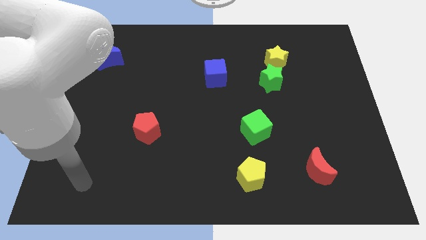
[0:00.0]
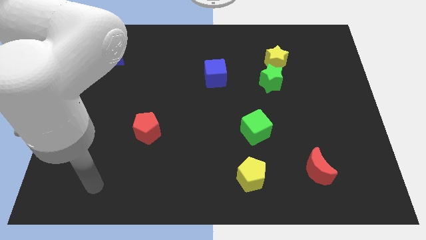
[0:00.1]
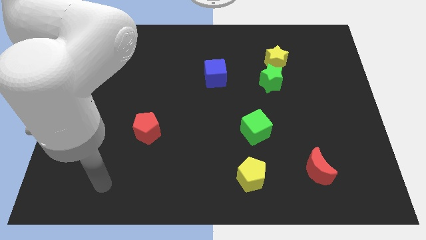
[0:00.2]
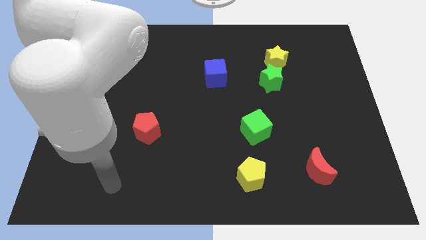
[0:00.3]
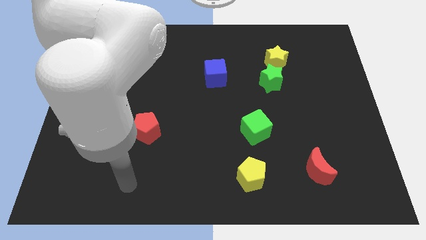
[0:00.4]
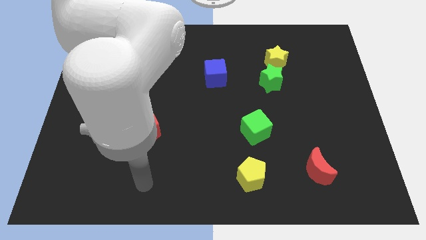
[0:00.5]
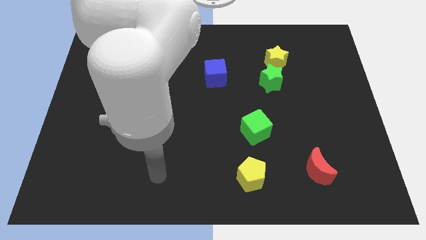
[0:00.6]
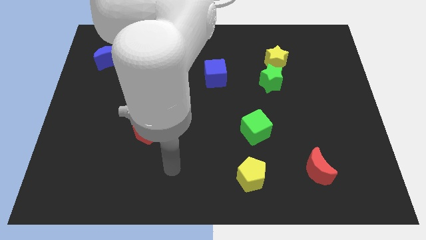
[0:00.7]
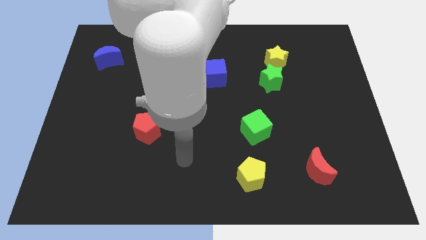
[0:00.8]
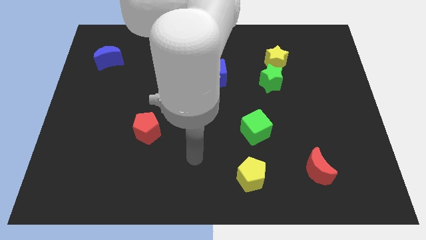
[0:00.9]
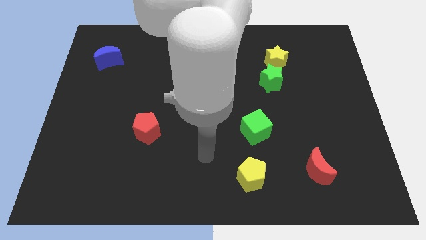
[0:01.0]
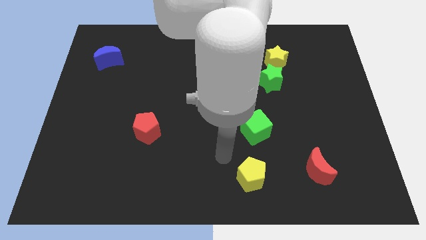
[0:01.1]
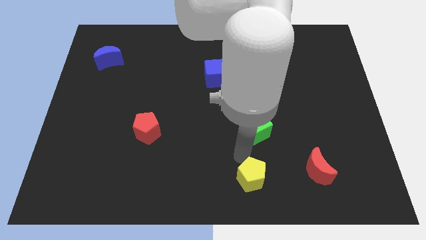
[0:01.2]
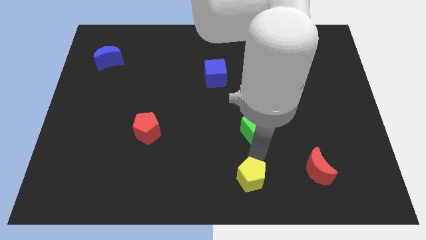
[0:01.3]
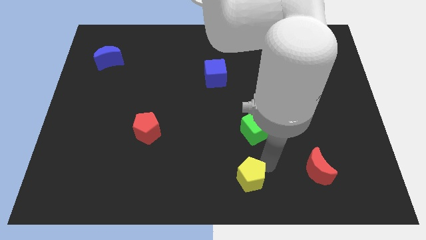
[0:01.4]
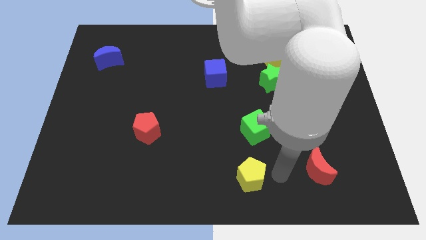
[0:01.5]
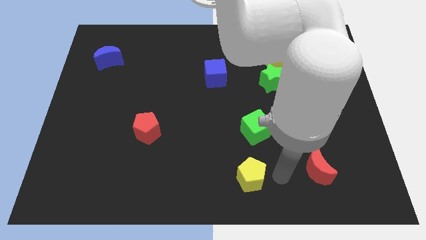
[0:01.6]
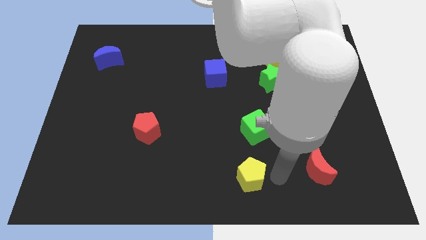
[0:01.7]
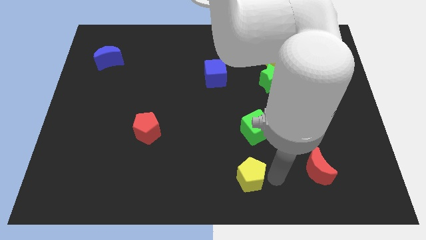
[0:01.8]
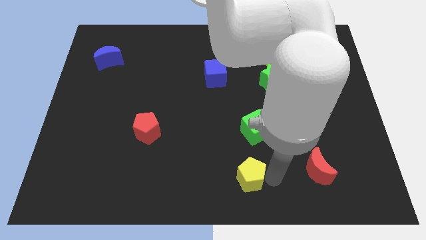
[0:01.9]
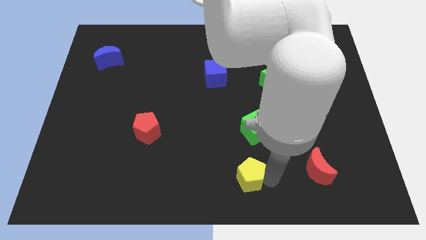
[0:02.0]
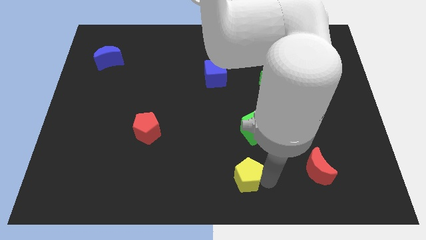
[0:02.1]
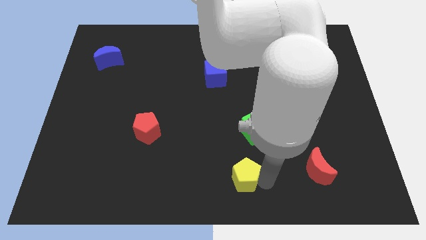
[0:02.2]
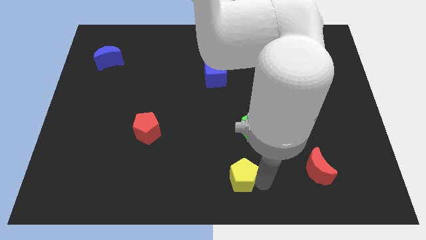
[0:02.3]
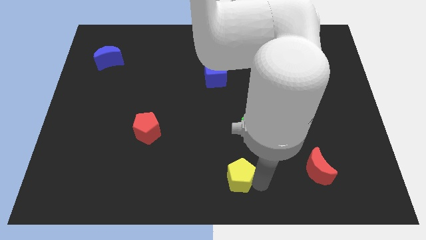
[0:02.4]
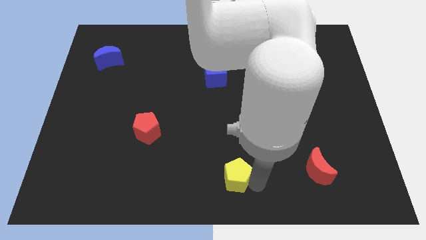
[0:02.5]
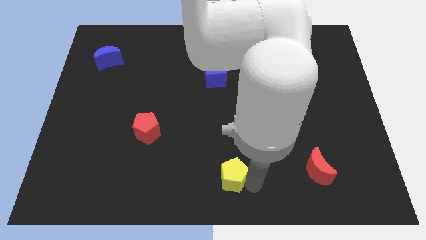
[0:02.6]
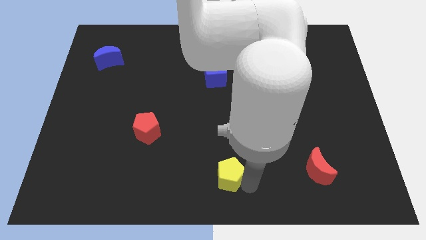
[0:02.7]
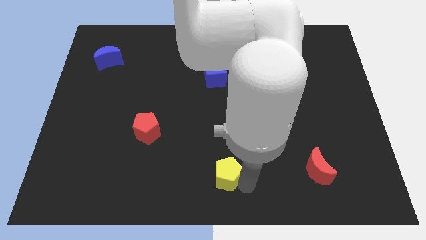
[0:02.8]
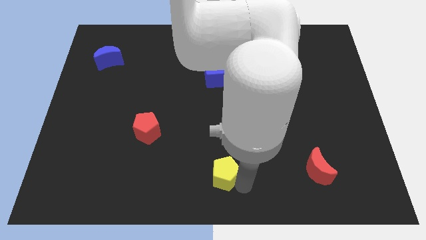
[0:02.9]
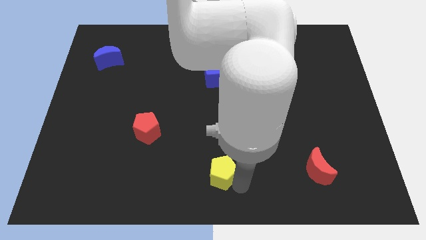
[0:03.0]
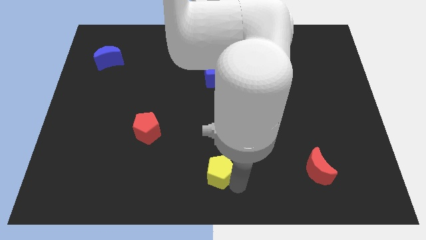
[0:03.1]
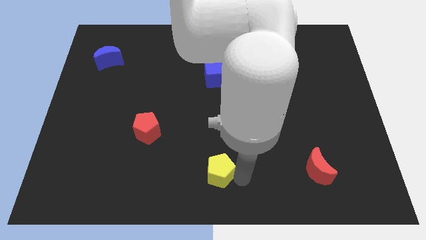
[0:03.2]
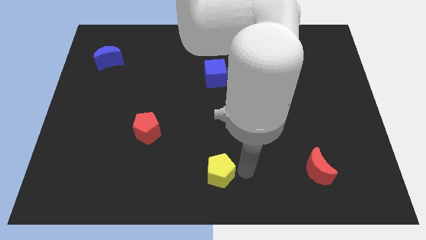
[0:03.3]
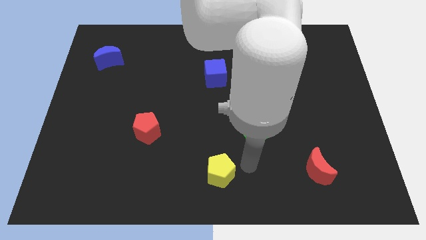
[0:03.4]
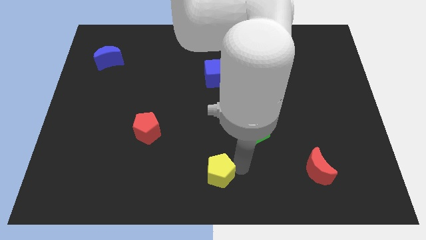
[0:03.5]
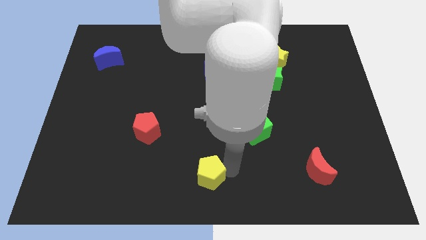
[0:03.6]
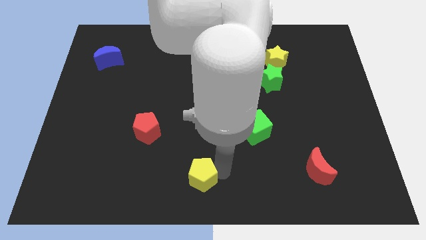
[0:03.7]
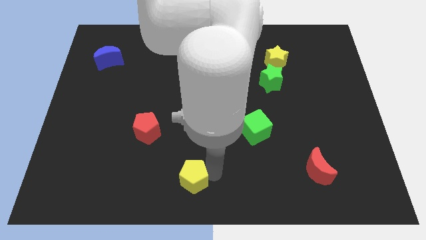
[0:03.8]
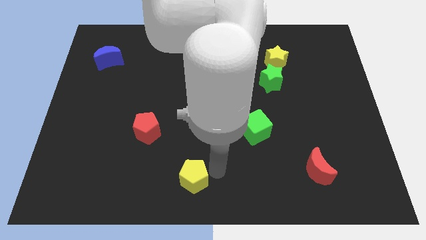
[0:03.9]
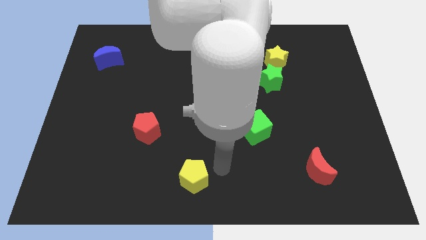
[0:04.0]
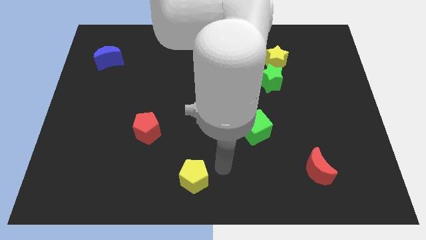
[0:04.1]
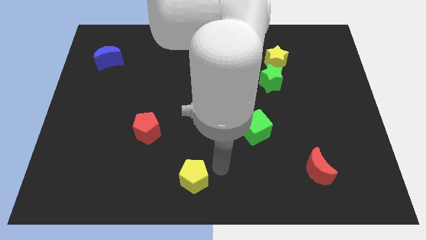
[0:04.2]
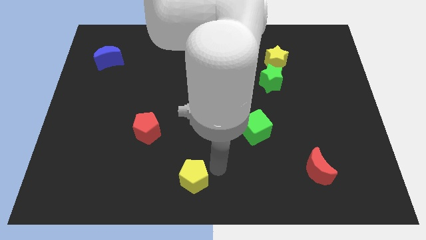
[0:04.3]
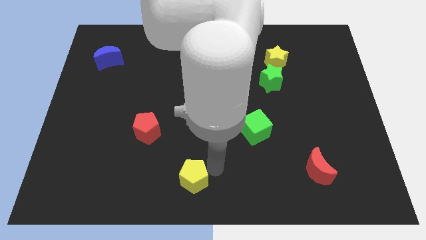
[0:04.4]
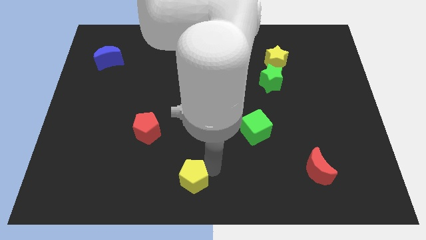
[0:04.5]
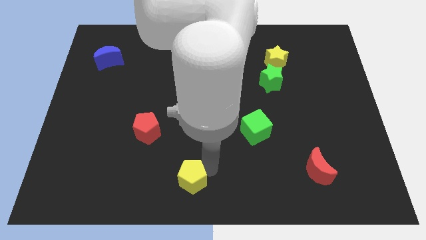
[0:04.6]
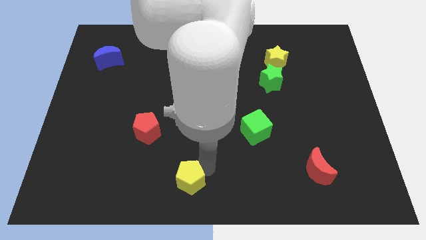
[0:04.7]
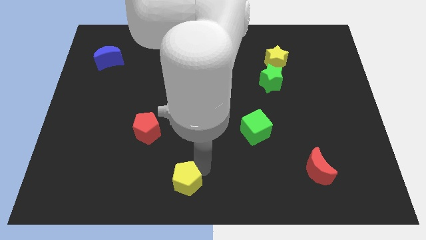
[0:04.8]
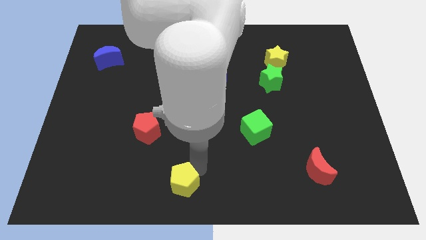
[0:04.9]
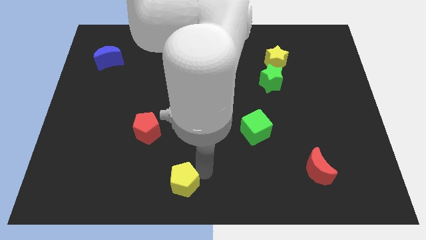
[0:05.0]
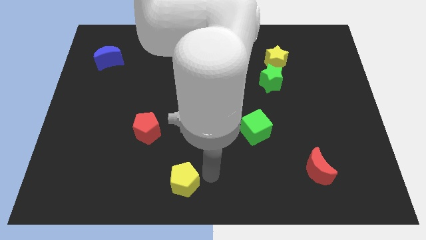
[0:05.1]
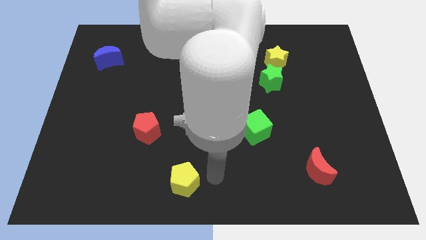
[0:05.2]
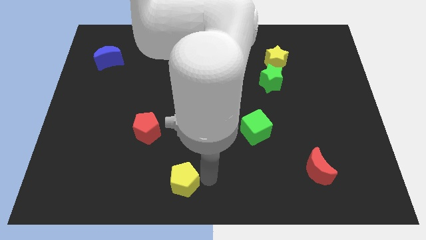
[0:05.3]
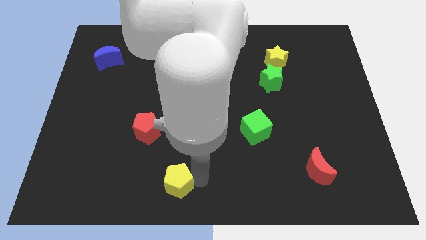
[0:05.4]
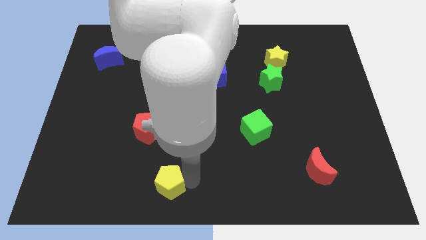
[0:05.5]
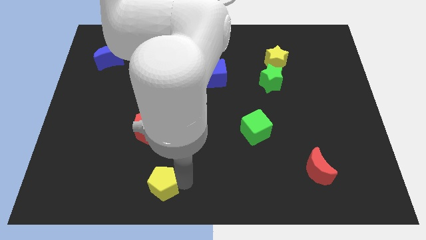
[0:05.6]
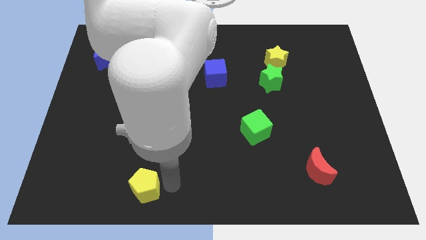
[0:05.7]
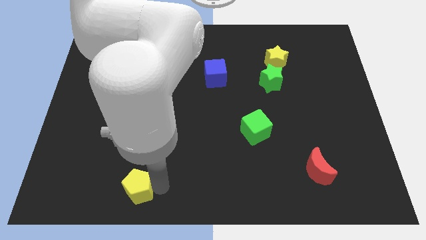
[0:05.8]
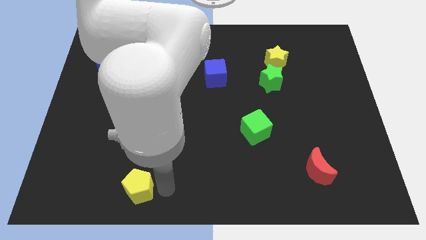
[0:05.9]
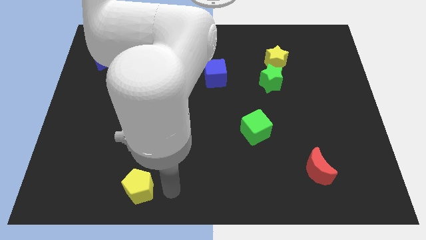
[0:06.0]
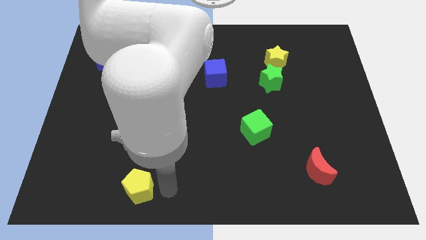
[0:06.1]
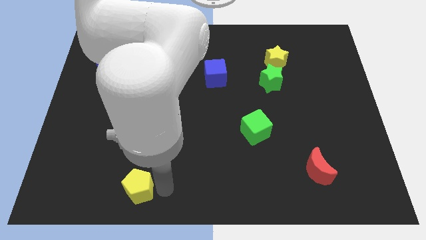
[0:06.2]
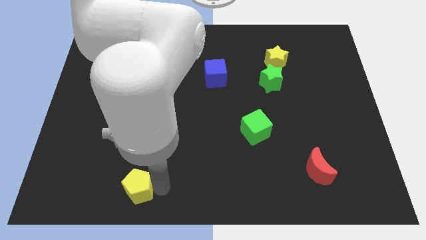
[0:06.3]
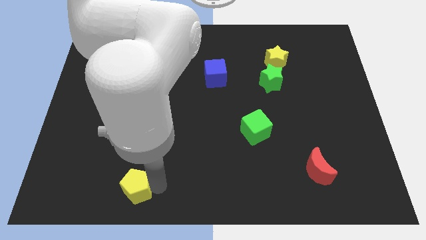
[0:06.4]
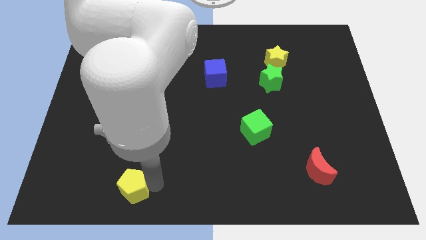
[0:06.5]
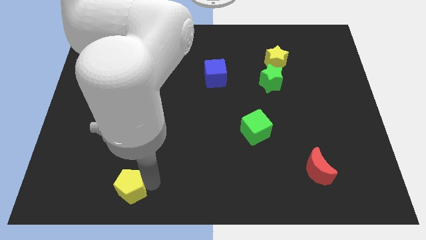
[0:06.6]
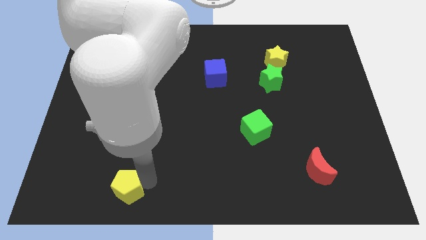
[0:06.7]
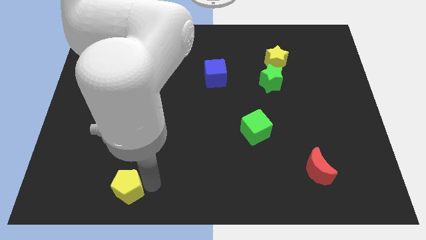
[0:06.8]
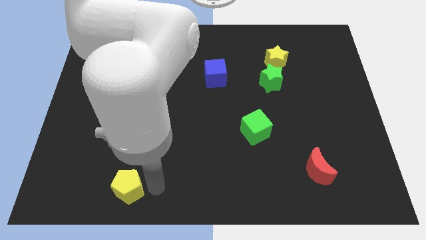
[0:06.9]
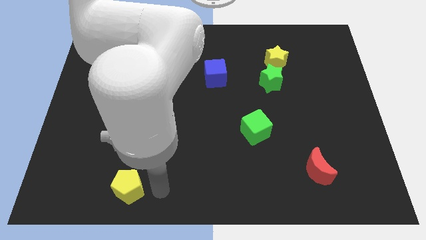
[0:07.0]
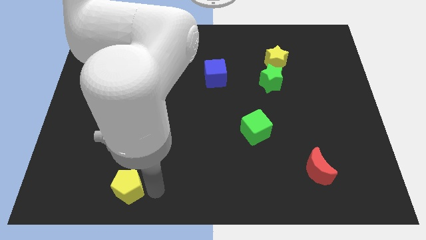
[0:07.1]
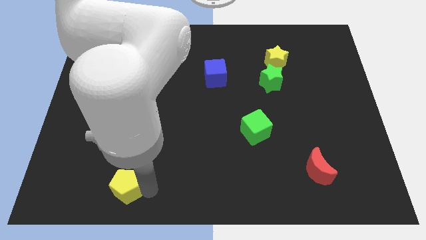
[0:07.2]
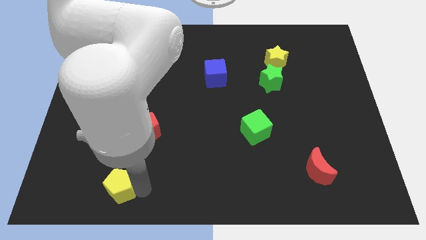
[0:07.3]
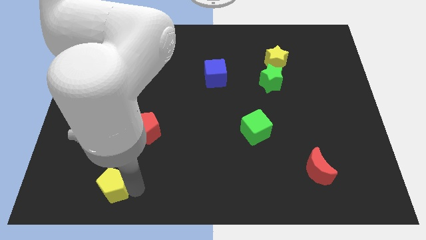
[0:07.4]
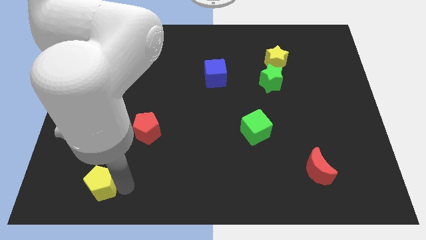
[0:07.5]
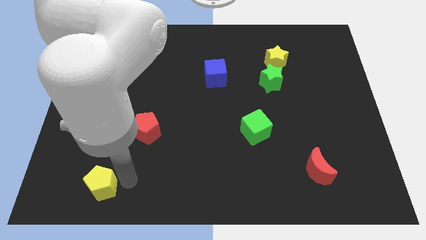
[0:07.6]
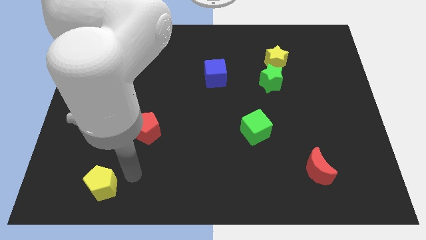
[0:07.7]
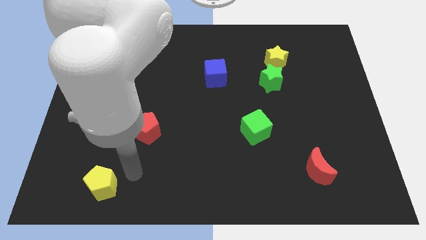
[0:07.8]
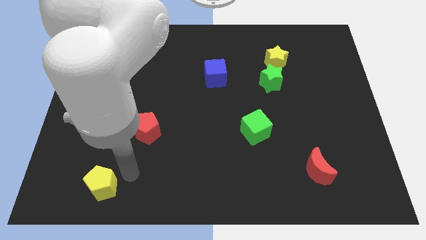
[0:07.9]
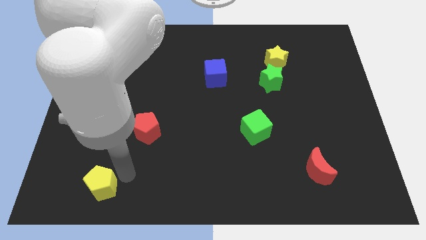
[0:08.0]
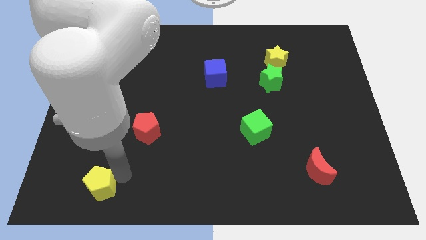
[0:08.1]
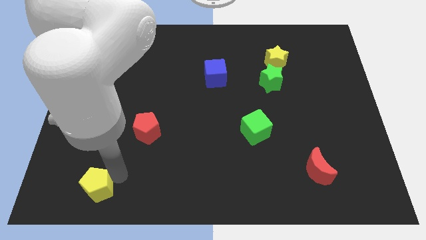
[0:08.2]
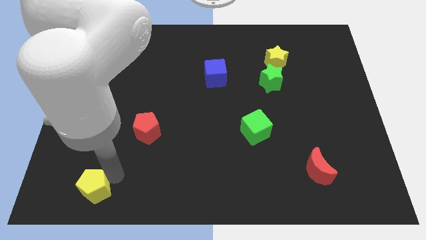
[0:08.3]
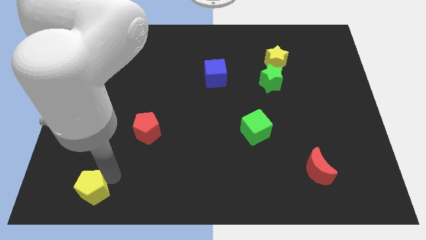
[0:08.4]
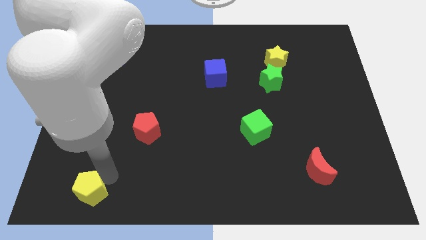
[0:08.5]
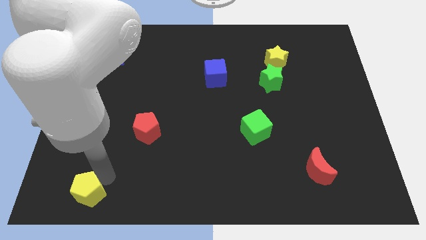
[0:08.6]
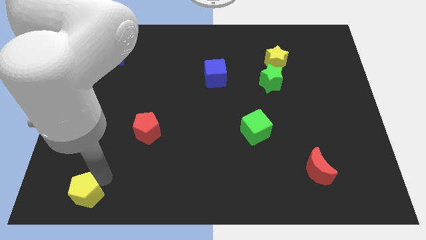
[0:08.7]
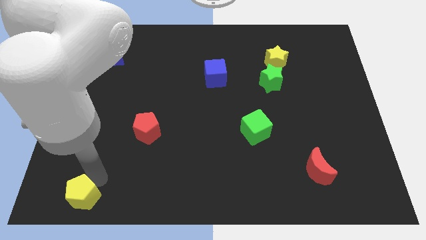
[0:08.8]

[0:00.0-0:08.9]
slide the yellow pentagon to the bottom left corner
